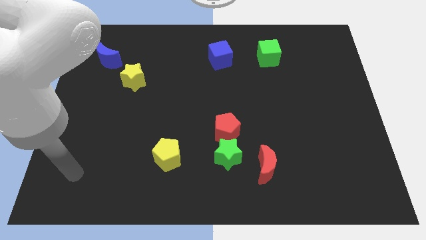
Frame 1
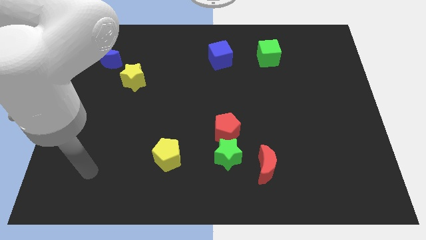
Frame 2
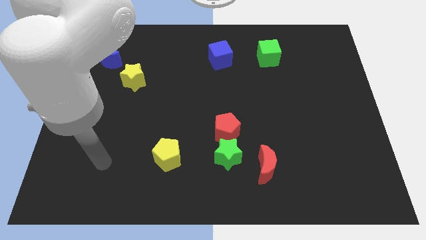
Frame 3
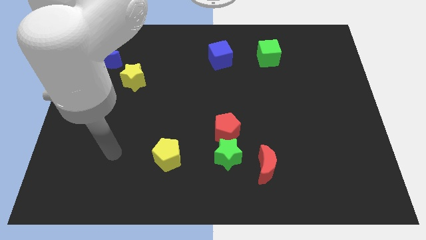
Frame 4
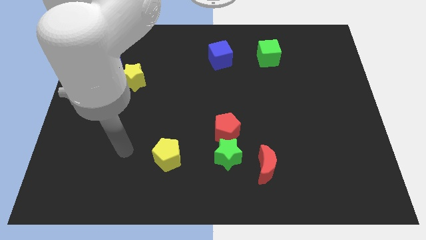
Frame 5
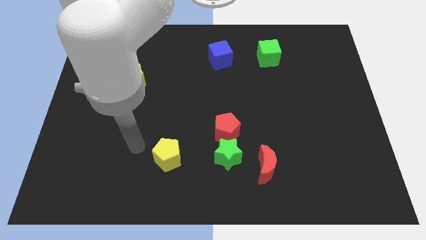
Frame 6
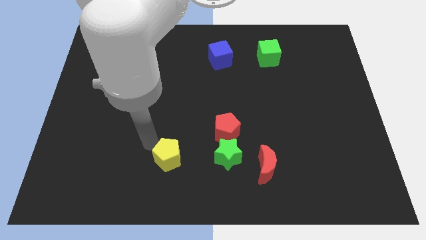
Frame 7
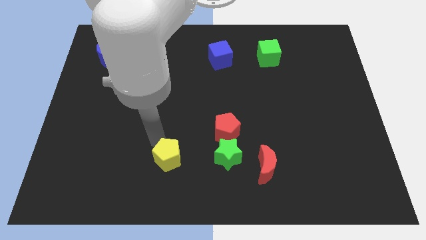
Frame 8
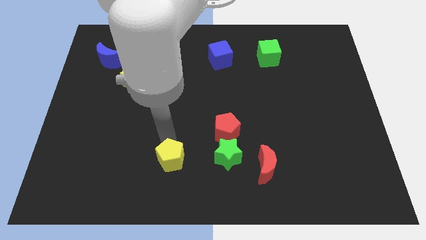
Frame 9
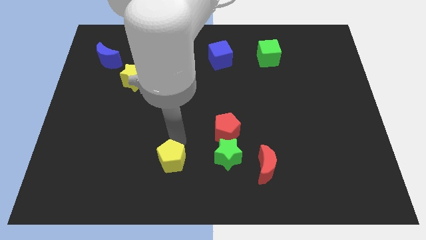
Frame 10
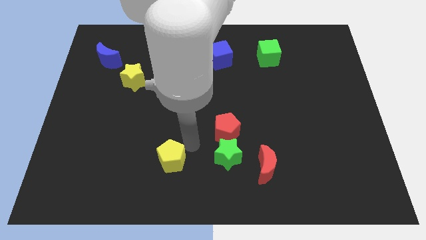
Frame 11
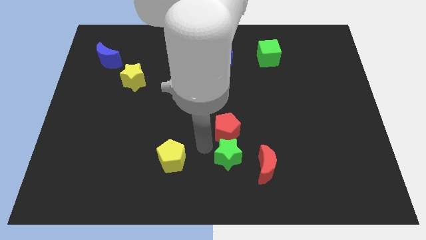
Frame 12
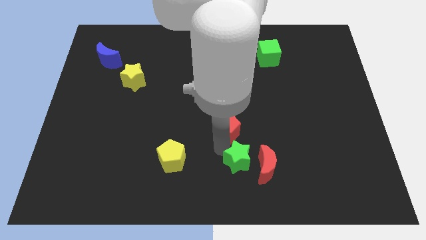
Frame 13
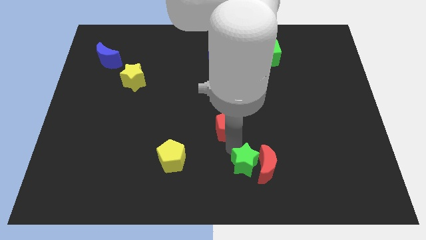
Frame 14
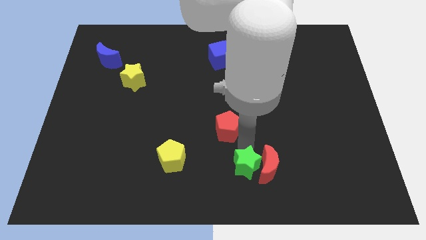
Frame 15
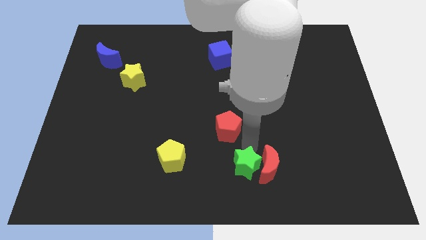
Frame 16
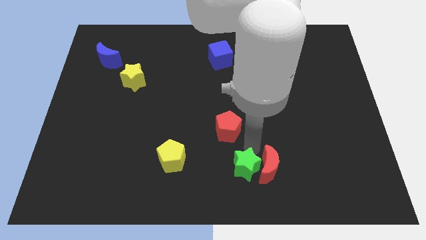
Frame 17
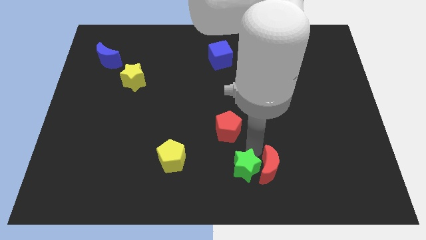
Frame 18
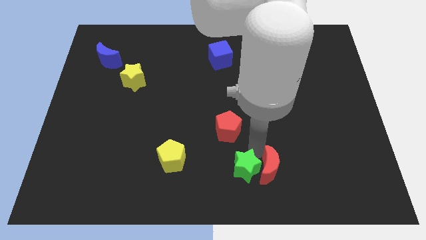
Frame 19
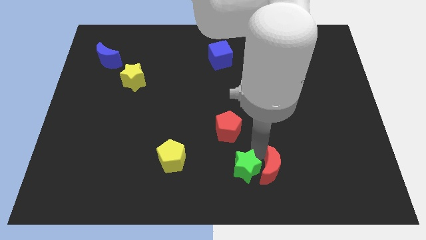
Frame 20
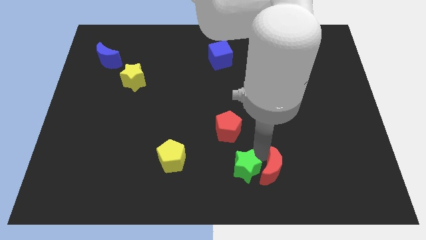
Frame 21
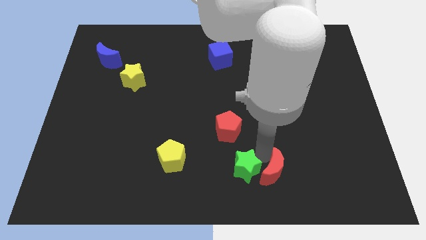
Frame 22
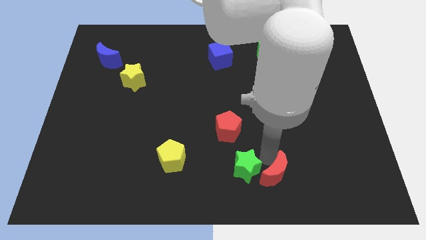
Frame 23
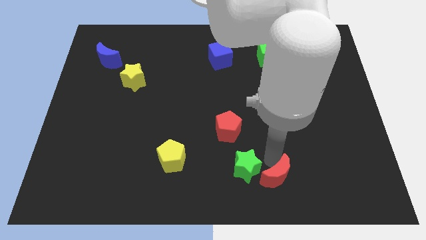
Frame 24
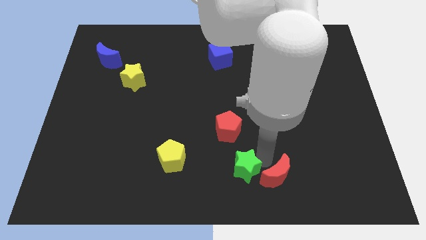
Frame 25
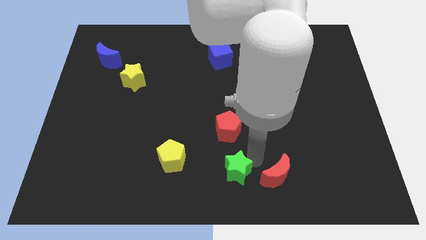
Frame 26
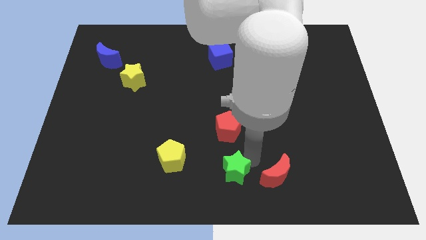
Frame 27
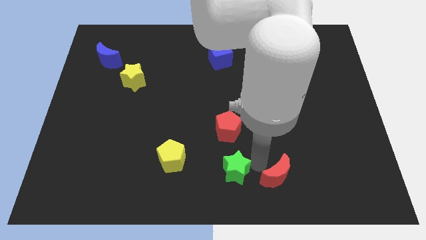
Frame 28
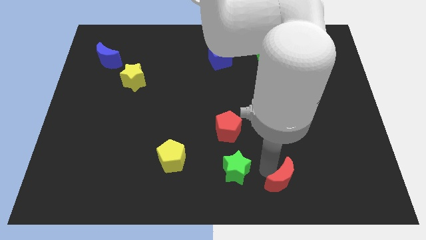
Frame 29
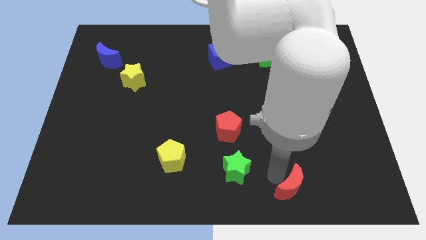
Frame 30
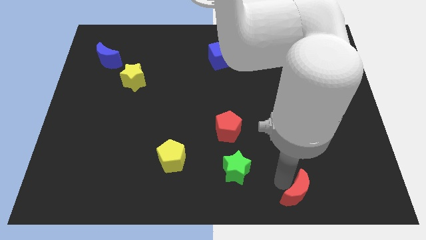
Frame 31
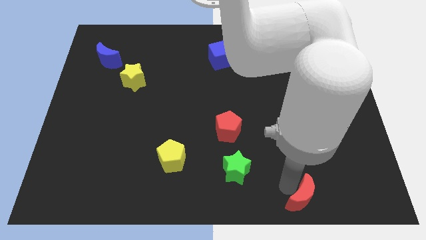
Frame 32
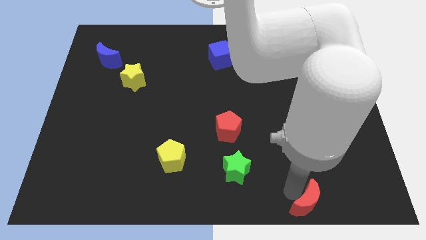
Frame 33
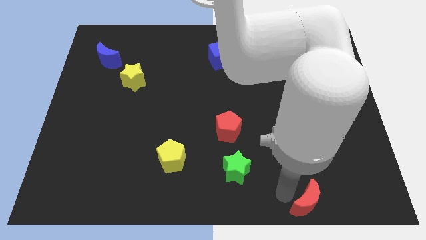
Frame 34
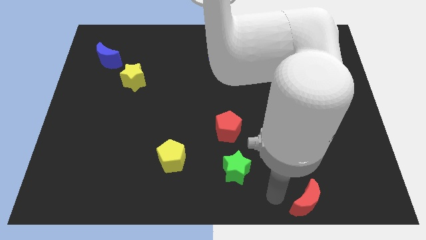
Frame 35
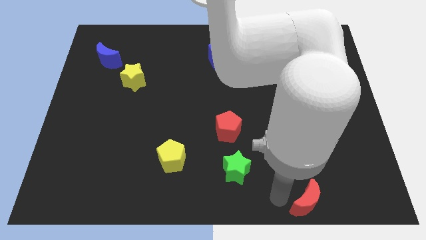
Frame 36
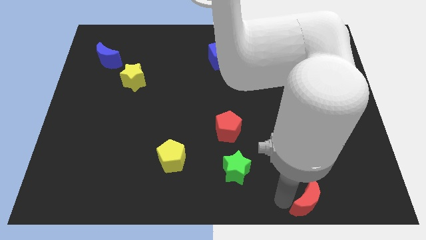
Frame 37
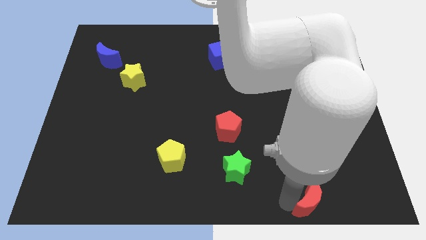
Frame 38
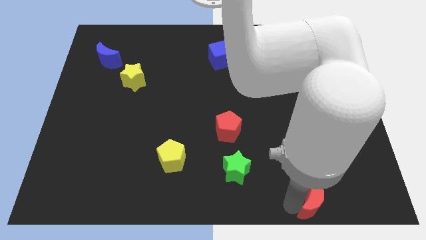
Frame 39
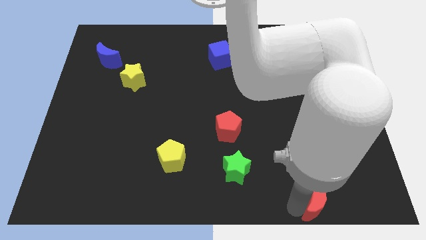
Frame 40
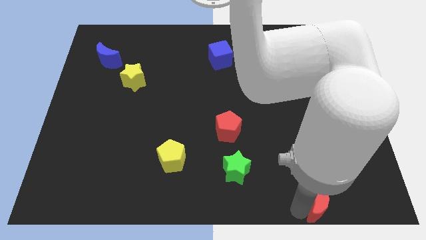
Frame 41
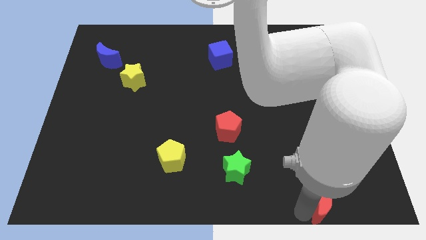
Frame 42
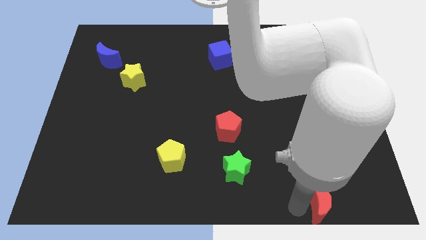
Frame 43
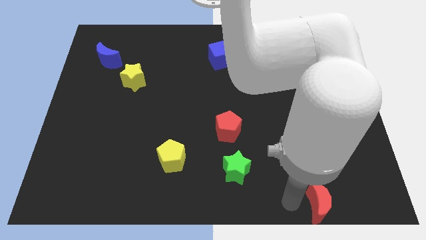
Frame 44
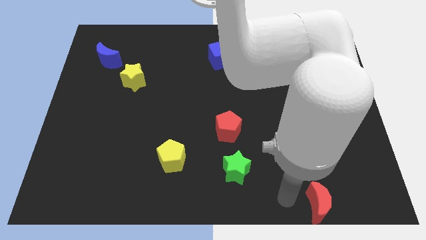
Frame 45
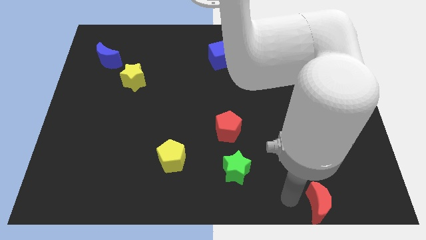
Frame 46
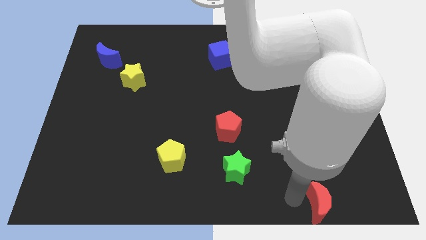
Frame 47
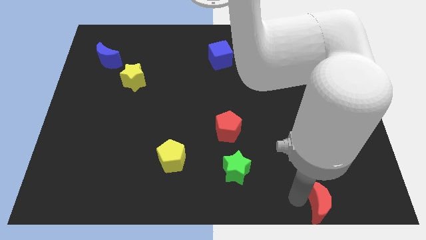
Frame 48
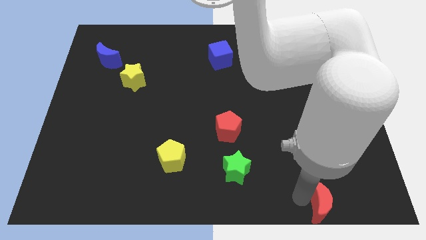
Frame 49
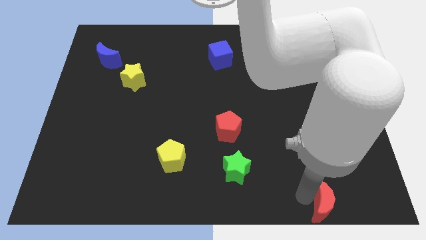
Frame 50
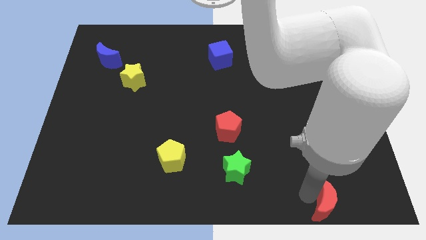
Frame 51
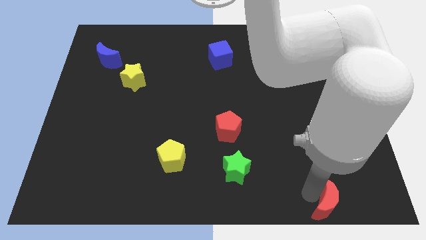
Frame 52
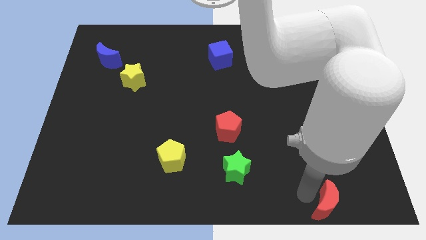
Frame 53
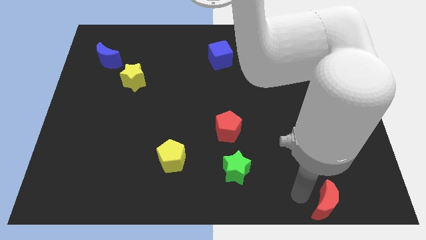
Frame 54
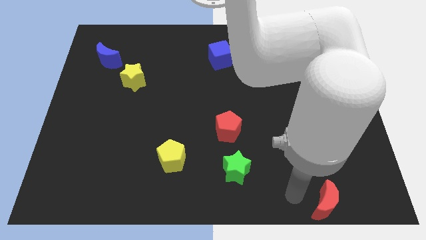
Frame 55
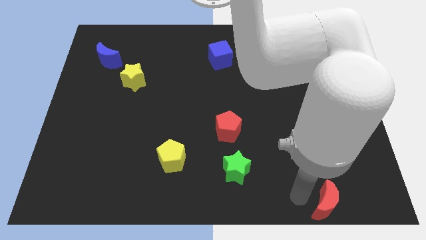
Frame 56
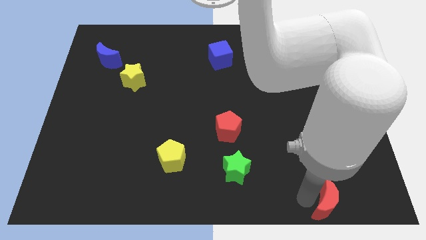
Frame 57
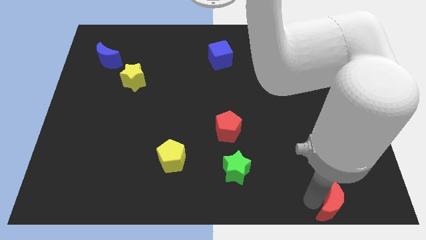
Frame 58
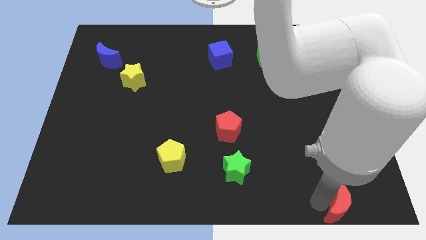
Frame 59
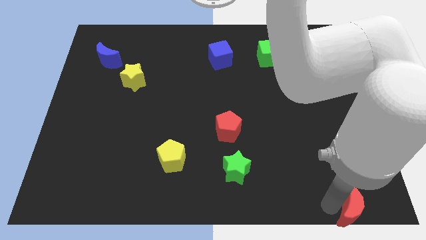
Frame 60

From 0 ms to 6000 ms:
put the red moon to the bottom right
